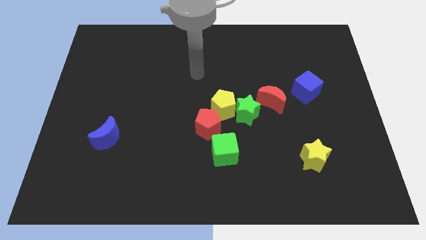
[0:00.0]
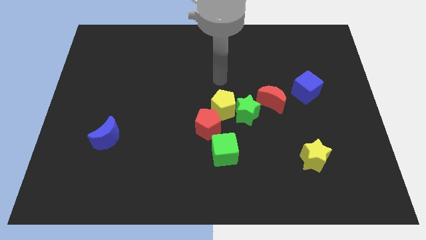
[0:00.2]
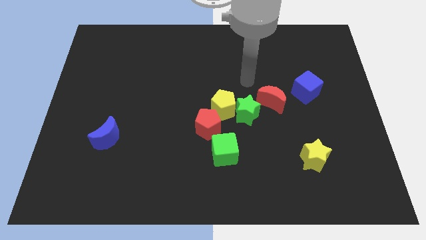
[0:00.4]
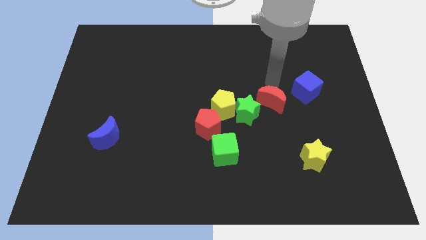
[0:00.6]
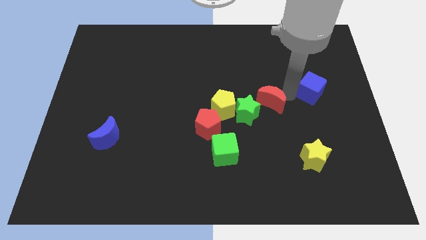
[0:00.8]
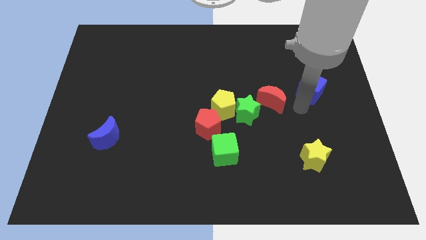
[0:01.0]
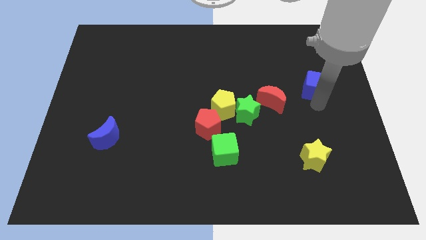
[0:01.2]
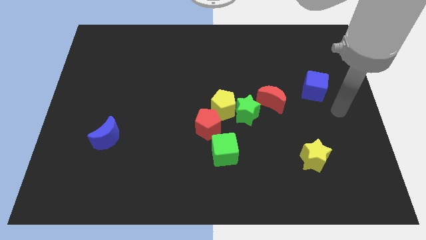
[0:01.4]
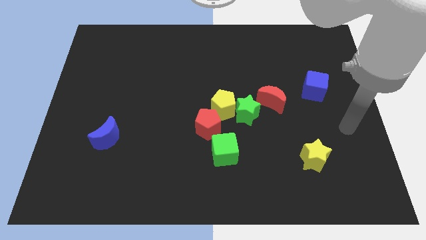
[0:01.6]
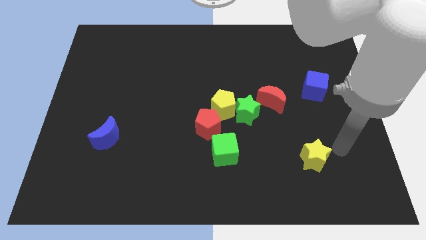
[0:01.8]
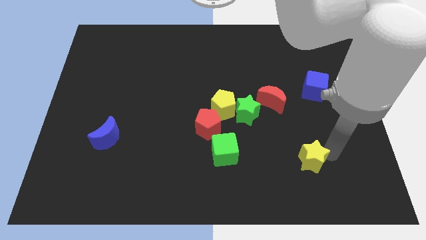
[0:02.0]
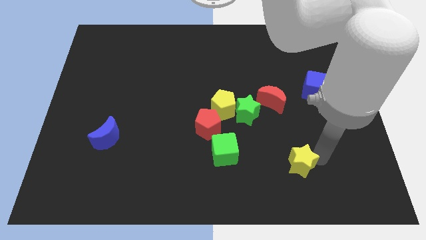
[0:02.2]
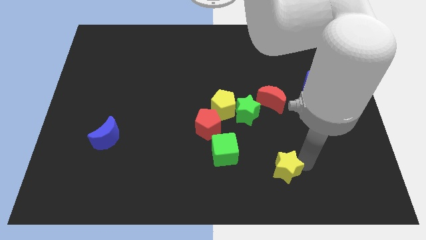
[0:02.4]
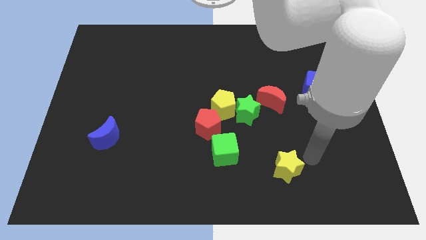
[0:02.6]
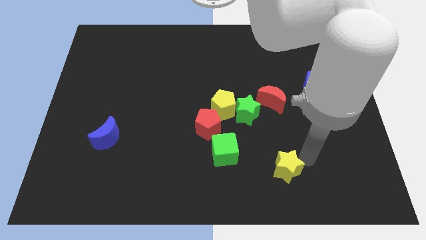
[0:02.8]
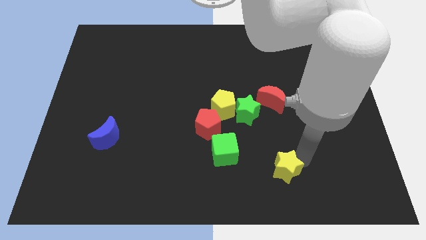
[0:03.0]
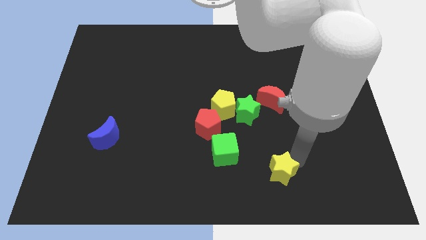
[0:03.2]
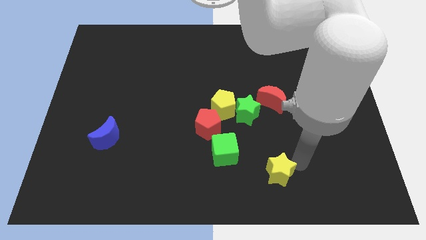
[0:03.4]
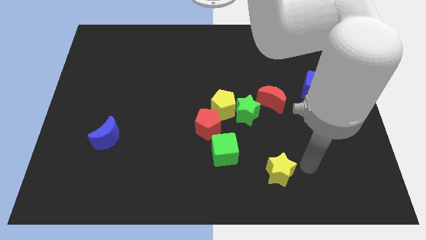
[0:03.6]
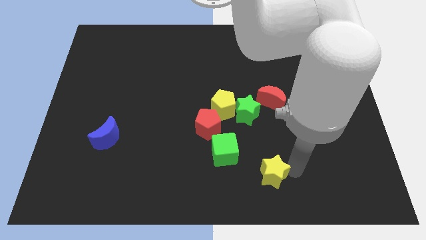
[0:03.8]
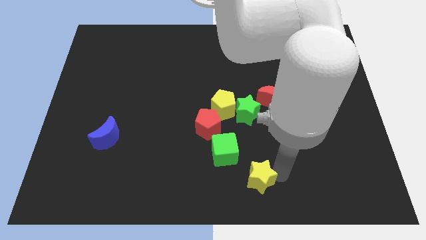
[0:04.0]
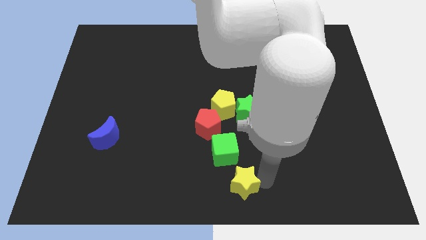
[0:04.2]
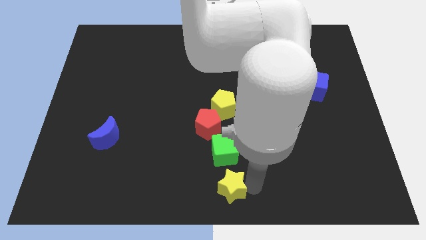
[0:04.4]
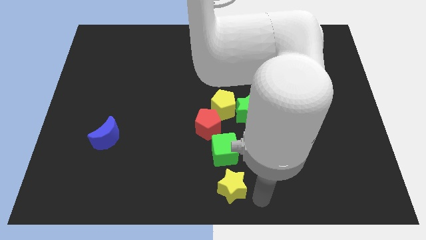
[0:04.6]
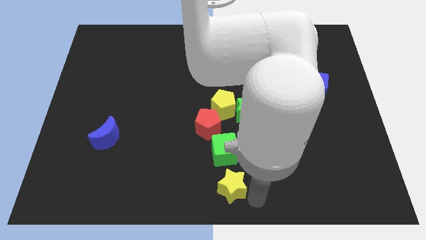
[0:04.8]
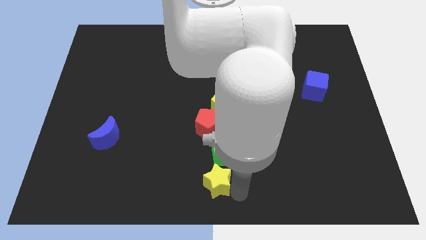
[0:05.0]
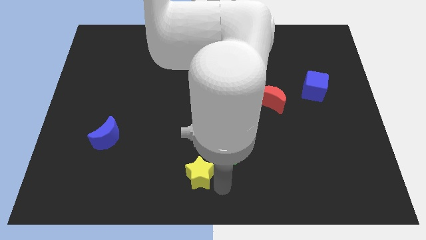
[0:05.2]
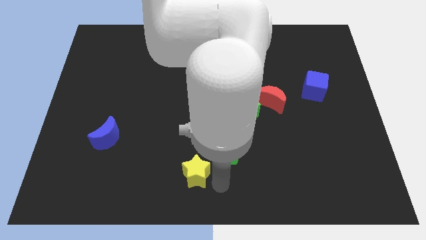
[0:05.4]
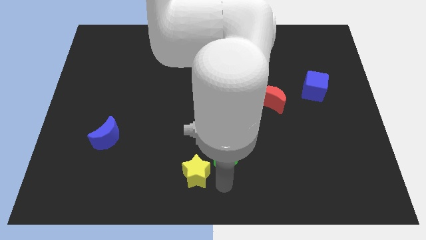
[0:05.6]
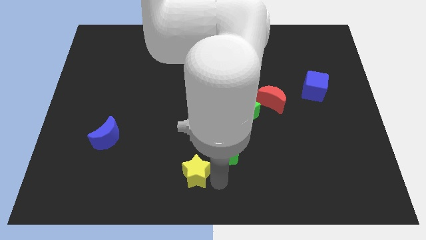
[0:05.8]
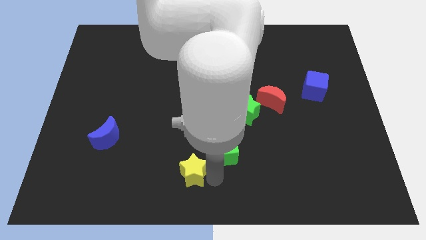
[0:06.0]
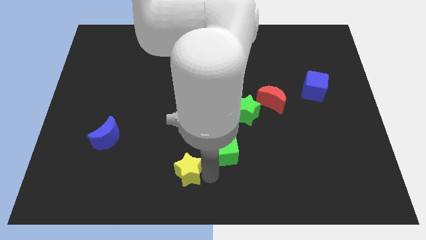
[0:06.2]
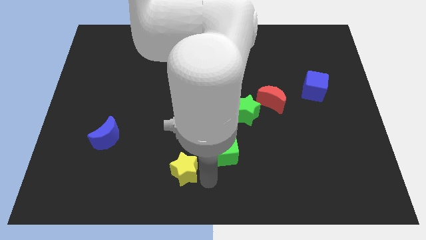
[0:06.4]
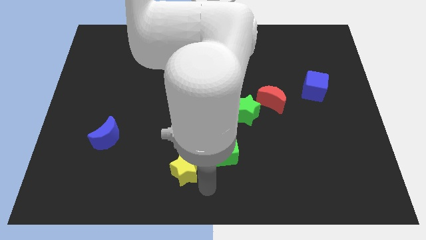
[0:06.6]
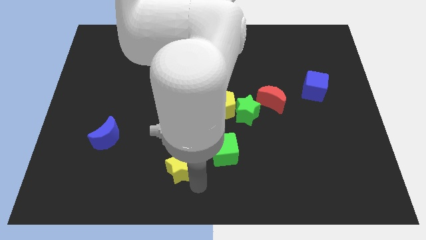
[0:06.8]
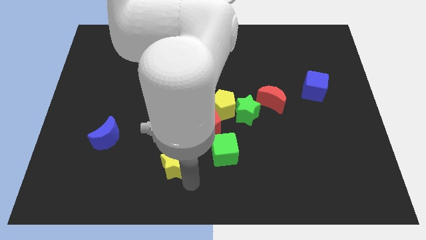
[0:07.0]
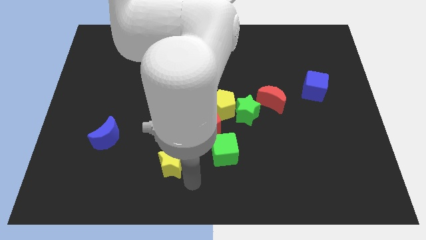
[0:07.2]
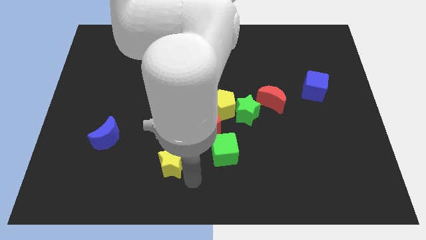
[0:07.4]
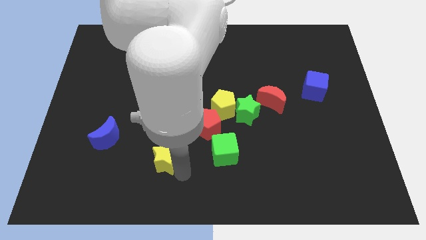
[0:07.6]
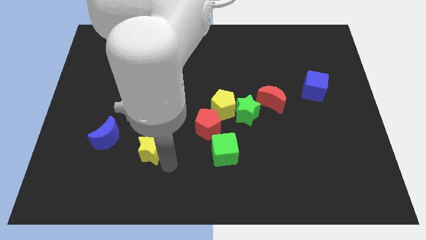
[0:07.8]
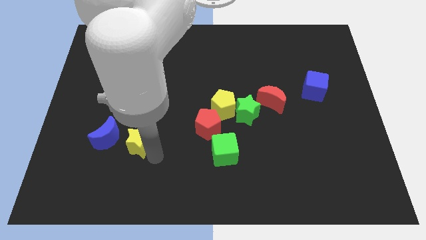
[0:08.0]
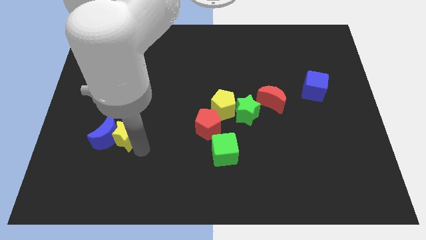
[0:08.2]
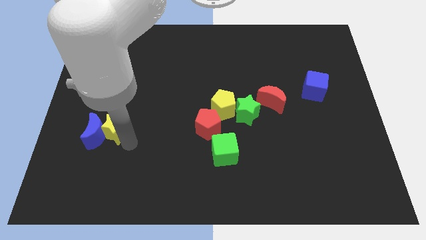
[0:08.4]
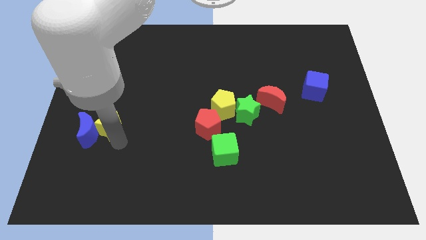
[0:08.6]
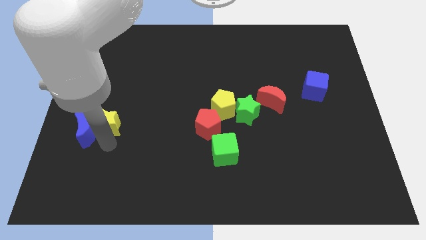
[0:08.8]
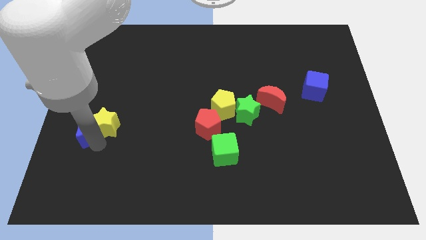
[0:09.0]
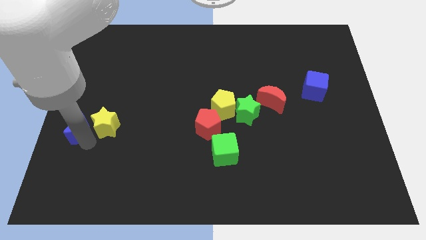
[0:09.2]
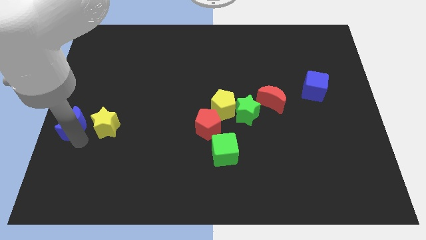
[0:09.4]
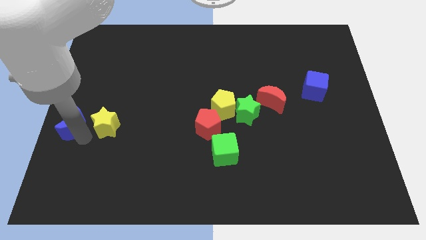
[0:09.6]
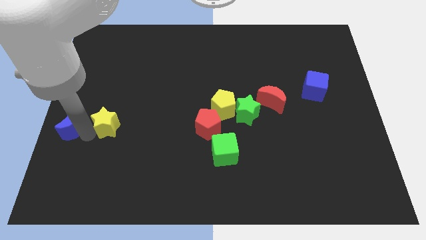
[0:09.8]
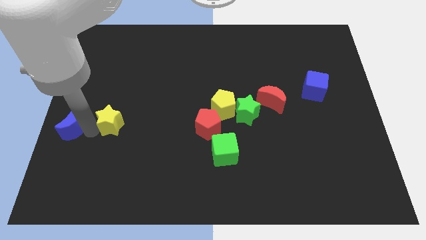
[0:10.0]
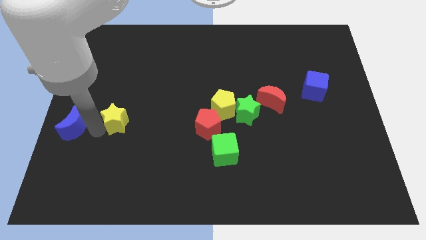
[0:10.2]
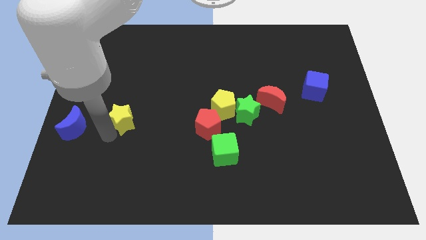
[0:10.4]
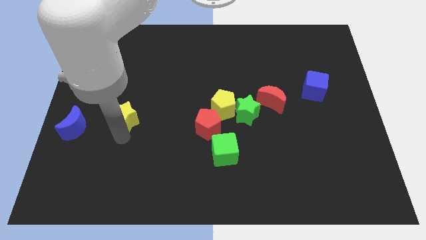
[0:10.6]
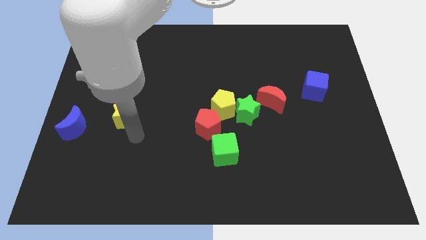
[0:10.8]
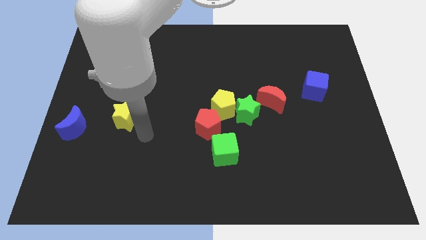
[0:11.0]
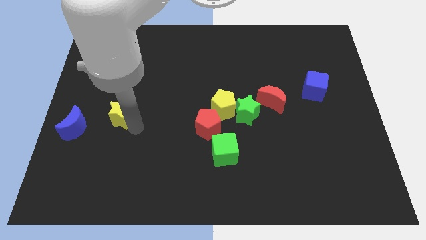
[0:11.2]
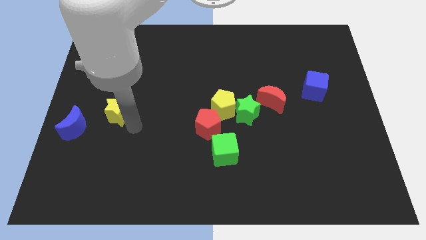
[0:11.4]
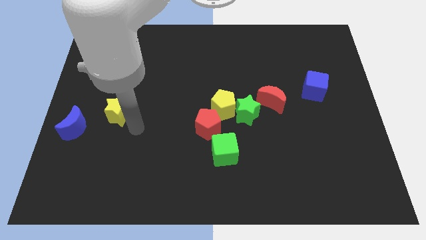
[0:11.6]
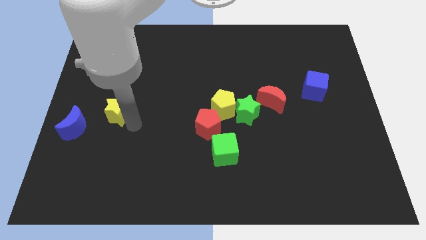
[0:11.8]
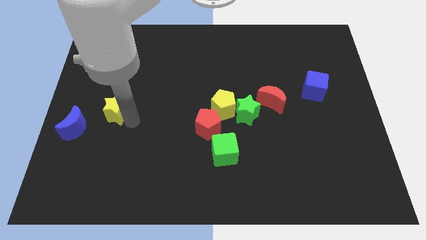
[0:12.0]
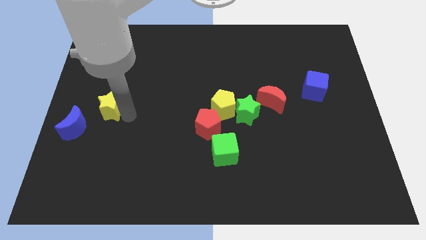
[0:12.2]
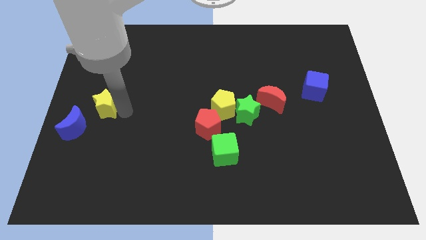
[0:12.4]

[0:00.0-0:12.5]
put the yellow star to the center left

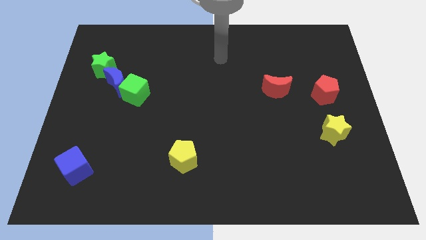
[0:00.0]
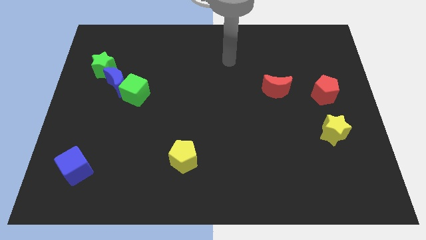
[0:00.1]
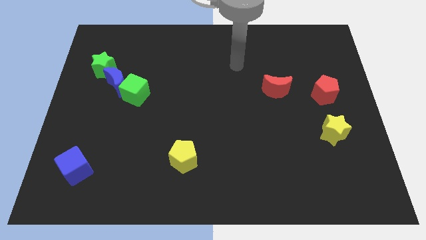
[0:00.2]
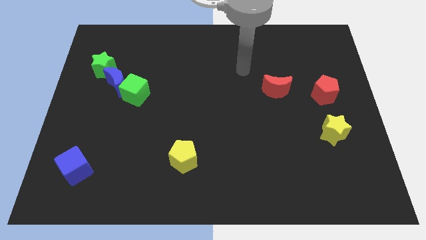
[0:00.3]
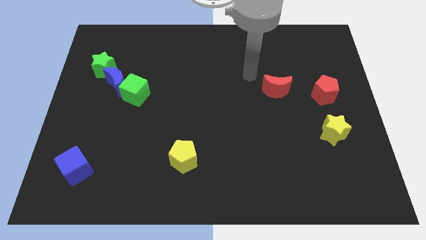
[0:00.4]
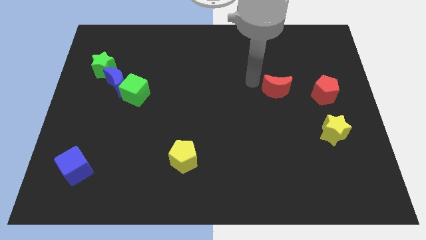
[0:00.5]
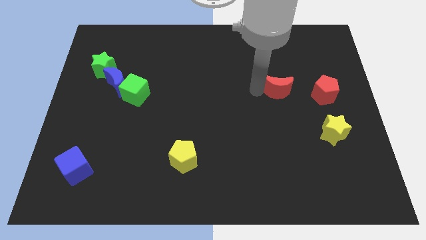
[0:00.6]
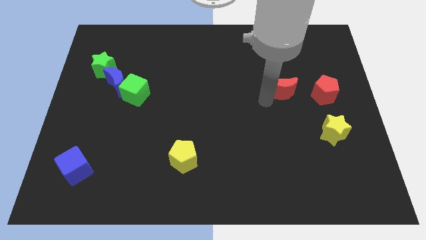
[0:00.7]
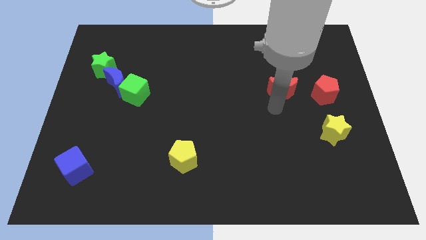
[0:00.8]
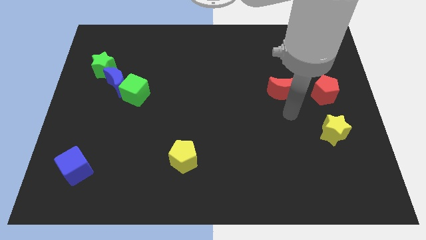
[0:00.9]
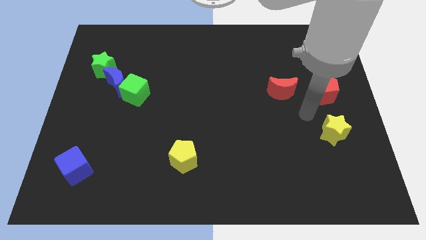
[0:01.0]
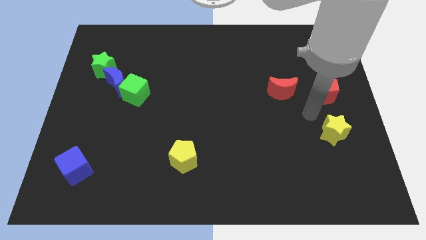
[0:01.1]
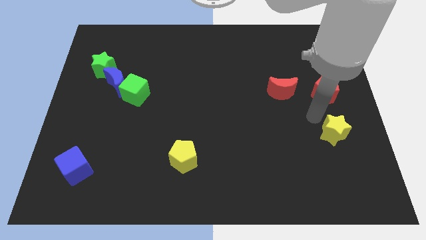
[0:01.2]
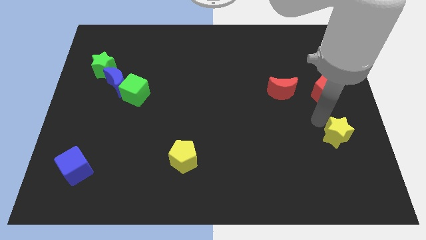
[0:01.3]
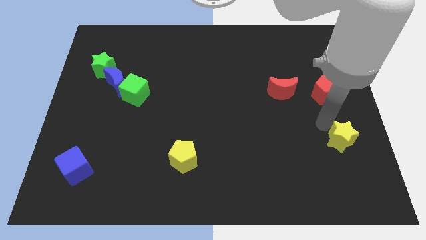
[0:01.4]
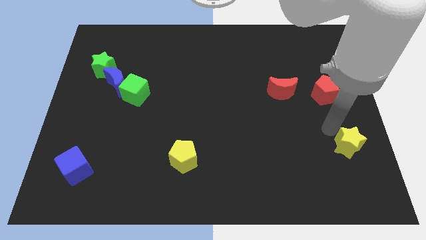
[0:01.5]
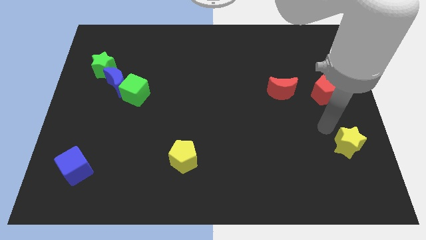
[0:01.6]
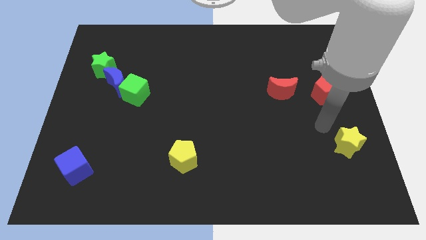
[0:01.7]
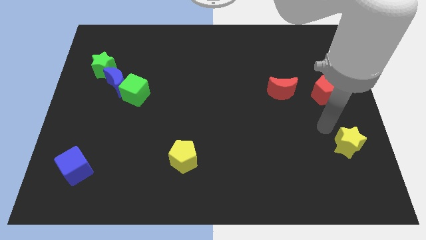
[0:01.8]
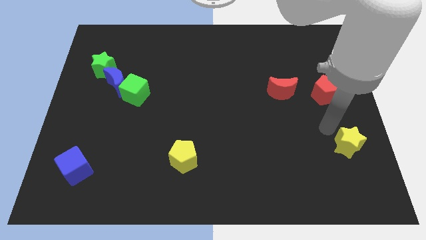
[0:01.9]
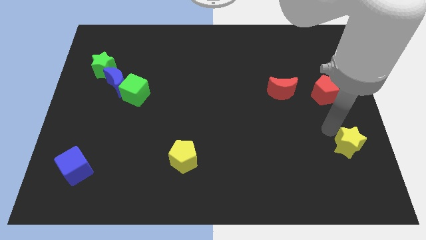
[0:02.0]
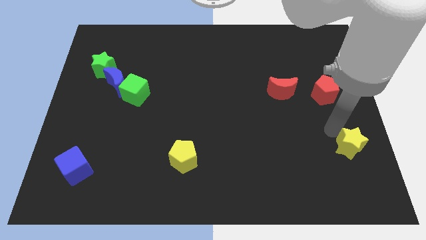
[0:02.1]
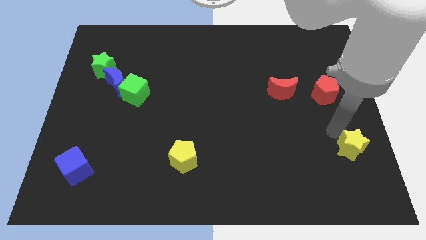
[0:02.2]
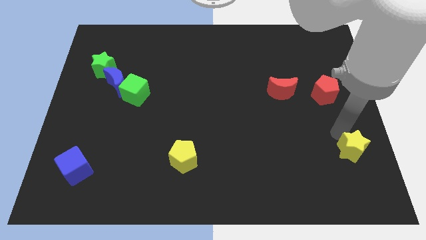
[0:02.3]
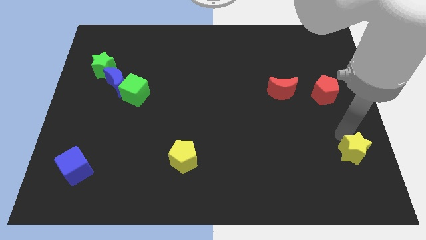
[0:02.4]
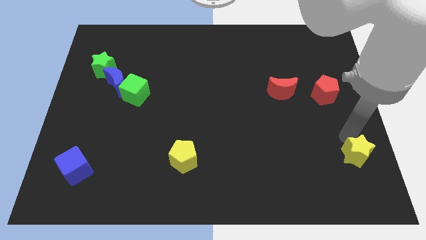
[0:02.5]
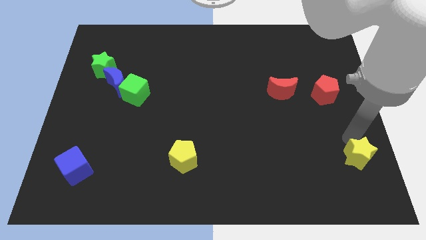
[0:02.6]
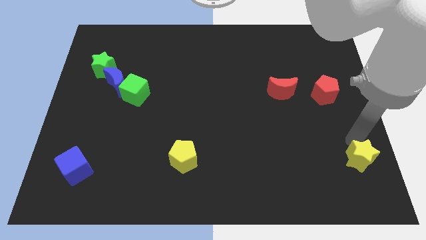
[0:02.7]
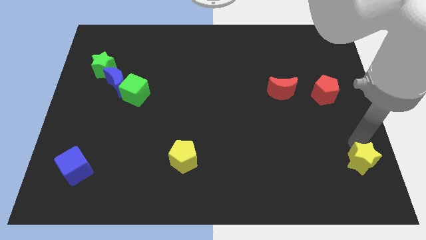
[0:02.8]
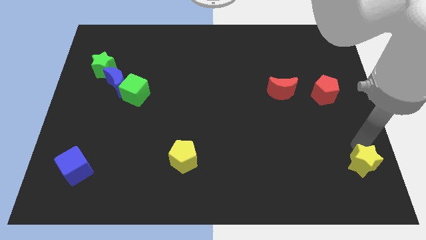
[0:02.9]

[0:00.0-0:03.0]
push the yellow star to the bottom right of the board
